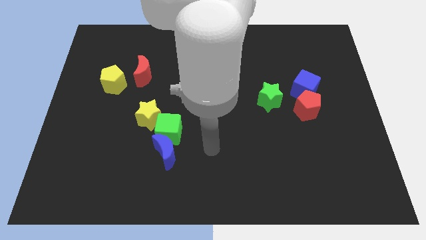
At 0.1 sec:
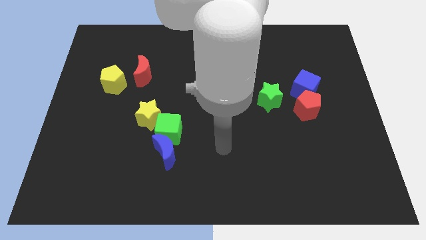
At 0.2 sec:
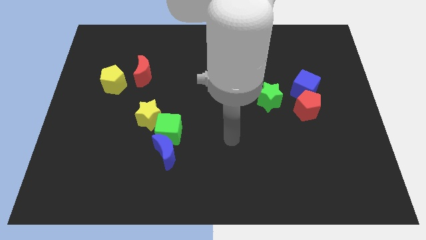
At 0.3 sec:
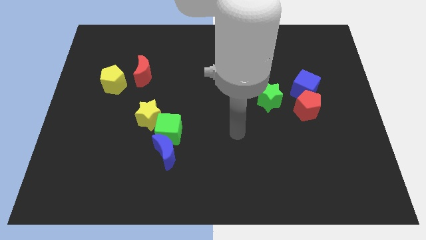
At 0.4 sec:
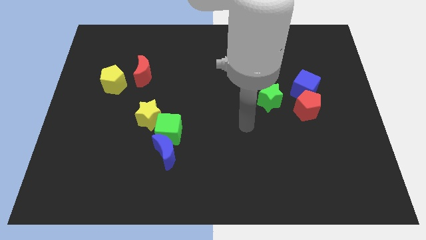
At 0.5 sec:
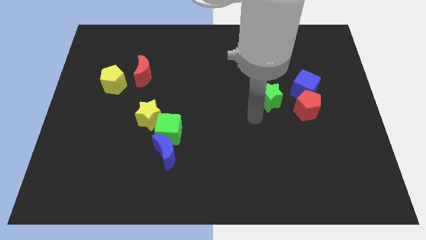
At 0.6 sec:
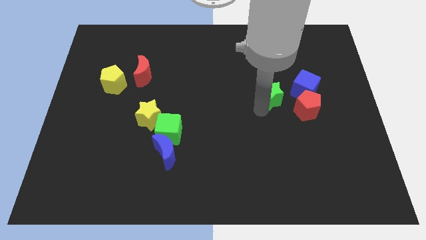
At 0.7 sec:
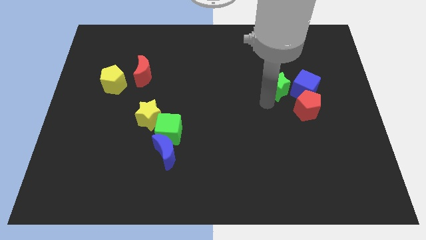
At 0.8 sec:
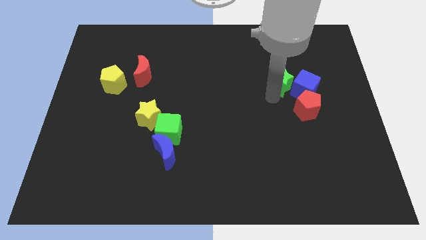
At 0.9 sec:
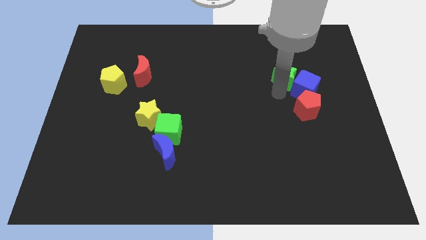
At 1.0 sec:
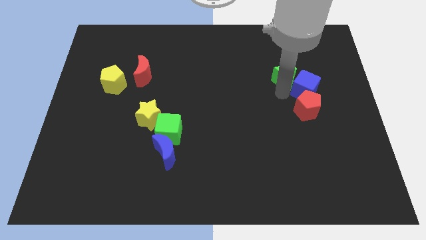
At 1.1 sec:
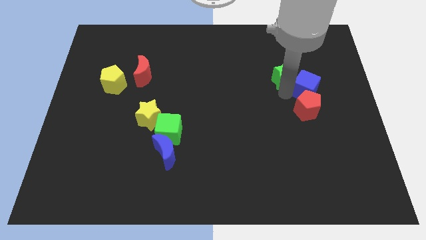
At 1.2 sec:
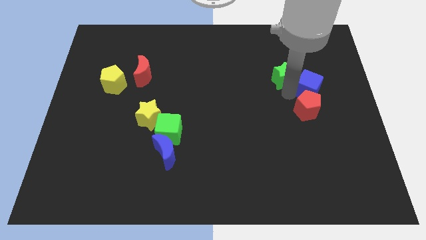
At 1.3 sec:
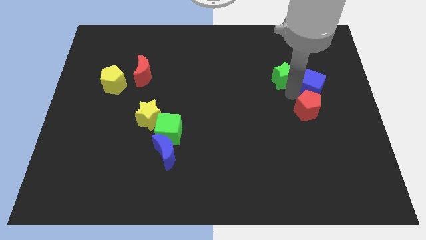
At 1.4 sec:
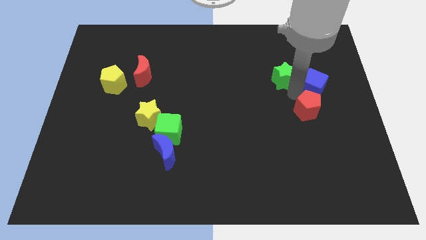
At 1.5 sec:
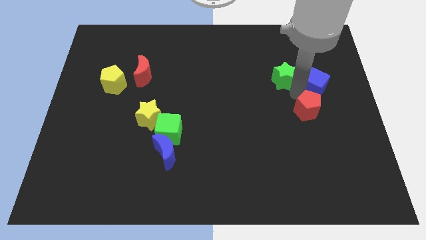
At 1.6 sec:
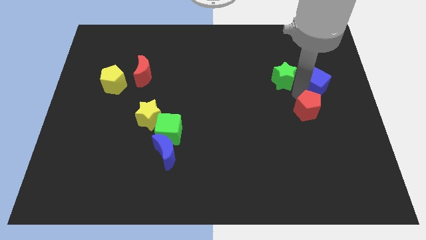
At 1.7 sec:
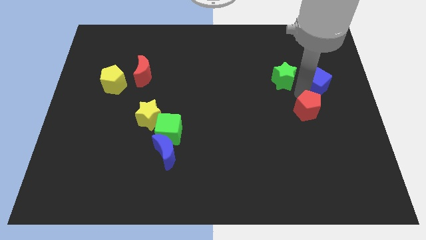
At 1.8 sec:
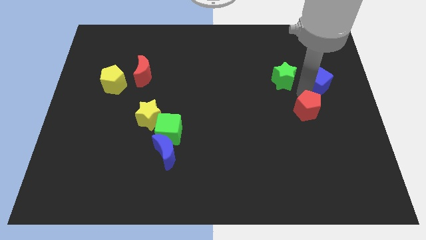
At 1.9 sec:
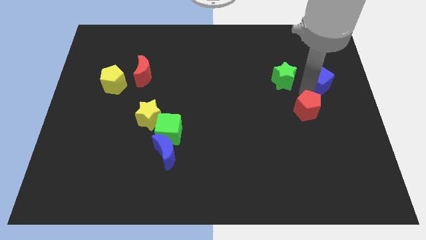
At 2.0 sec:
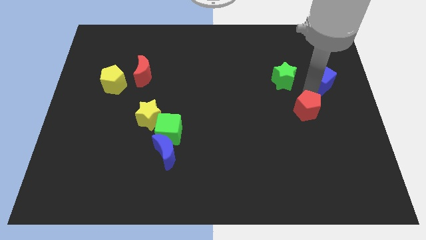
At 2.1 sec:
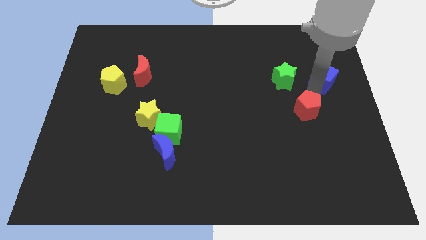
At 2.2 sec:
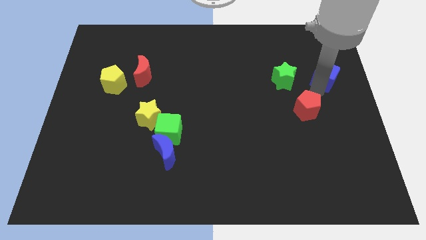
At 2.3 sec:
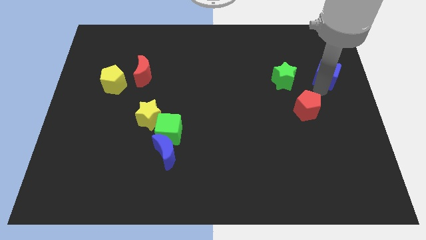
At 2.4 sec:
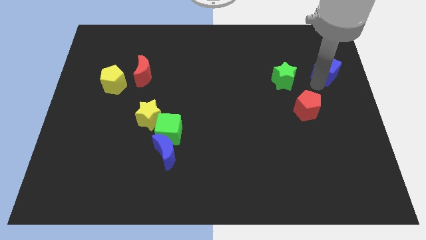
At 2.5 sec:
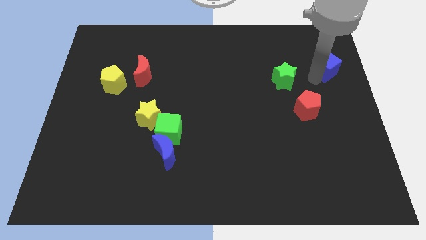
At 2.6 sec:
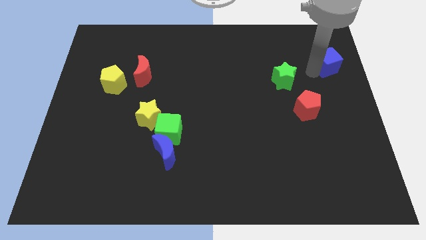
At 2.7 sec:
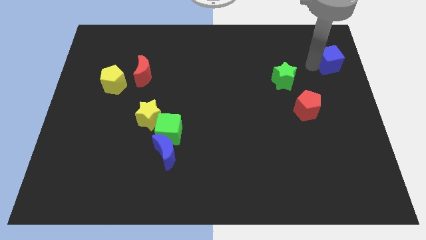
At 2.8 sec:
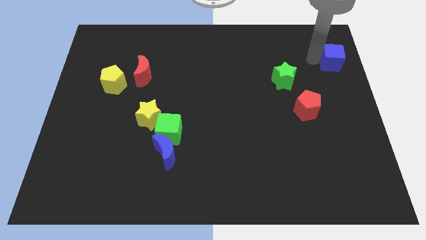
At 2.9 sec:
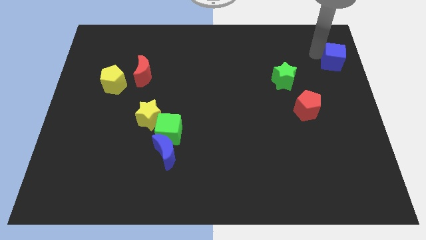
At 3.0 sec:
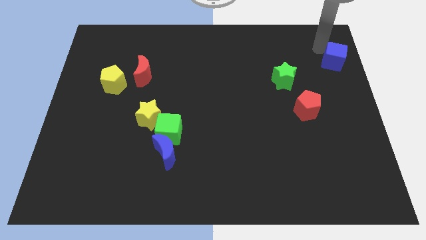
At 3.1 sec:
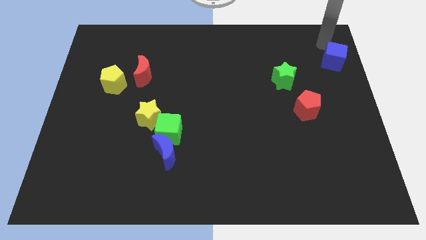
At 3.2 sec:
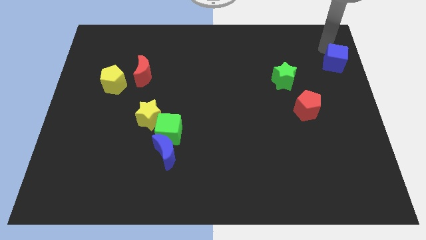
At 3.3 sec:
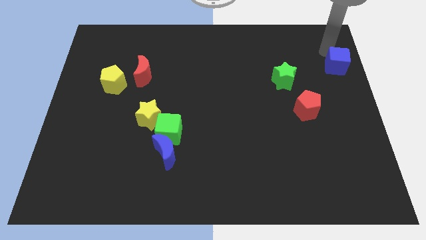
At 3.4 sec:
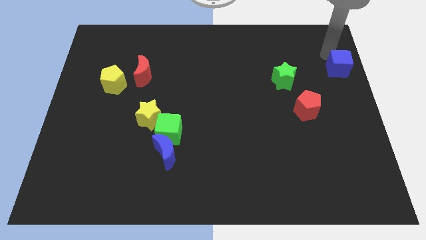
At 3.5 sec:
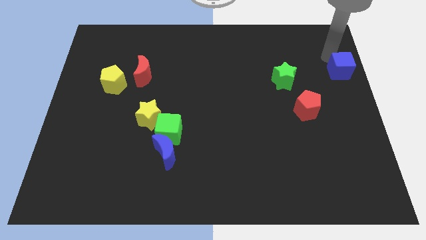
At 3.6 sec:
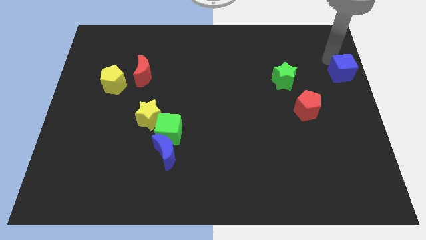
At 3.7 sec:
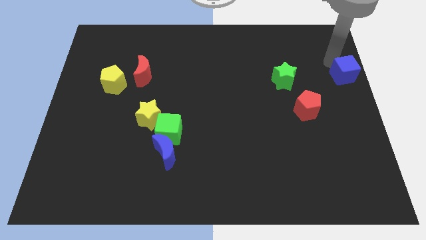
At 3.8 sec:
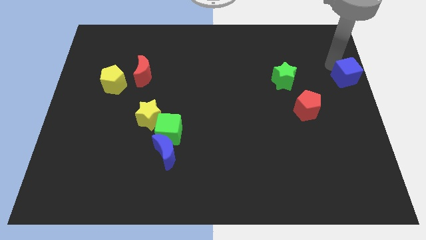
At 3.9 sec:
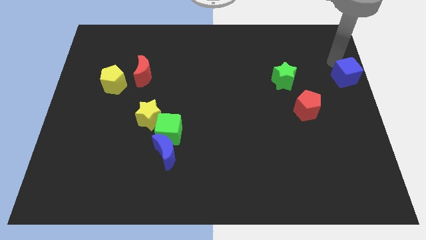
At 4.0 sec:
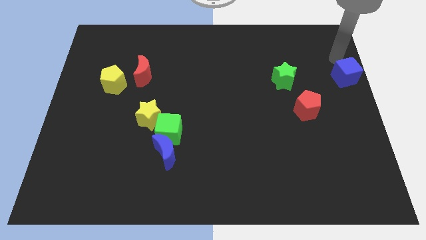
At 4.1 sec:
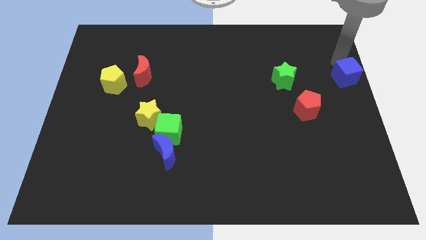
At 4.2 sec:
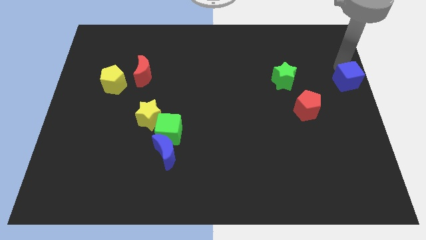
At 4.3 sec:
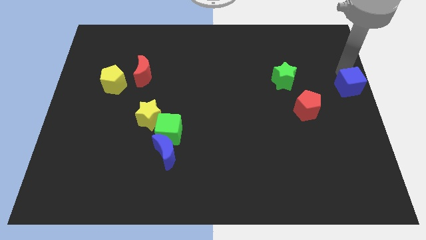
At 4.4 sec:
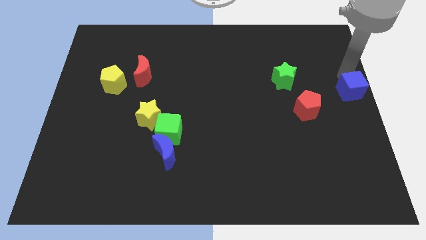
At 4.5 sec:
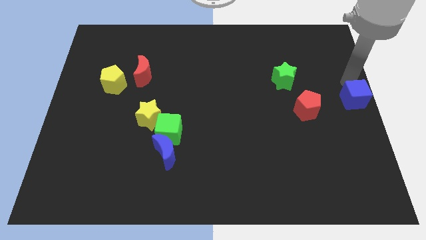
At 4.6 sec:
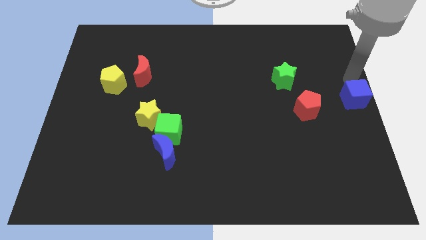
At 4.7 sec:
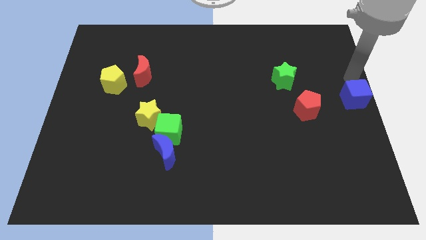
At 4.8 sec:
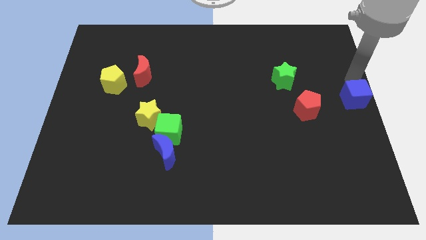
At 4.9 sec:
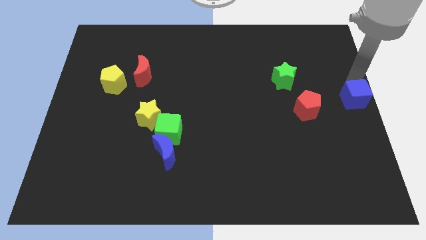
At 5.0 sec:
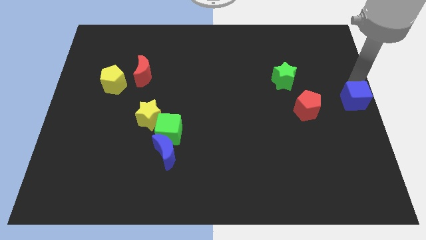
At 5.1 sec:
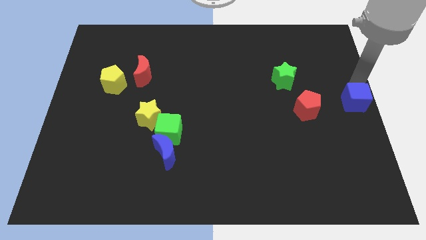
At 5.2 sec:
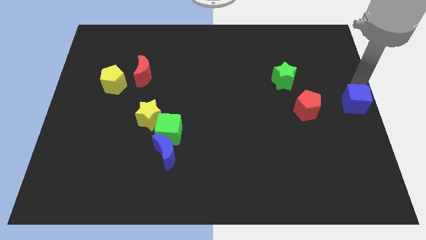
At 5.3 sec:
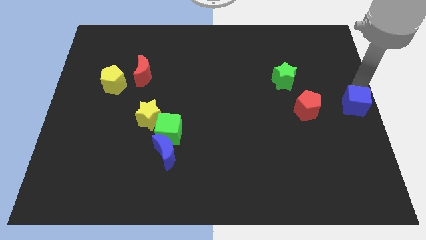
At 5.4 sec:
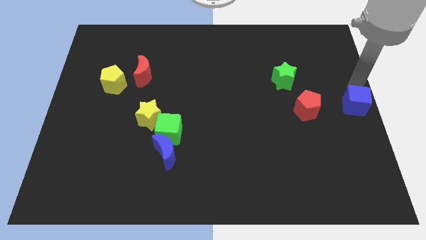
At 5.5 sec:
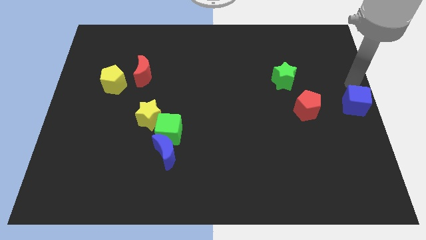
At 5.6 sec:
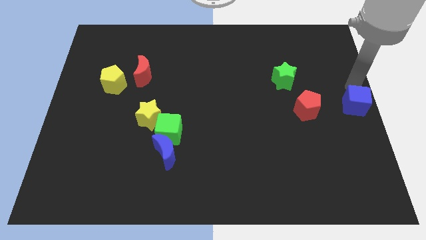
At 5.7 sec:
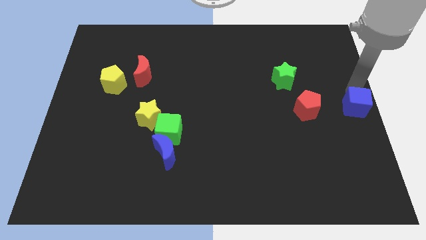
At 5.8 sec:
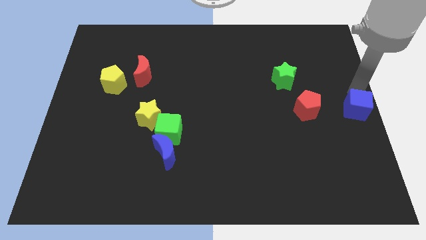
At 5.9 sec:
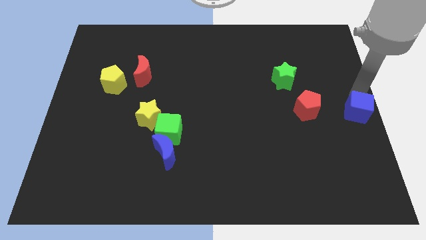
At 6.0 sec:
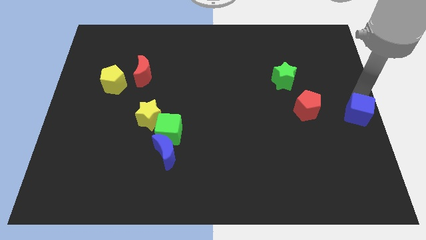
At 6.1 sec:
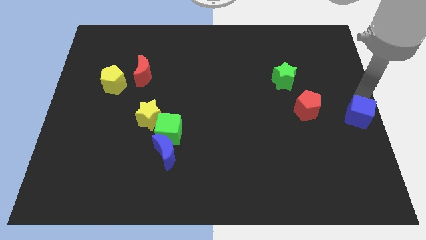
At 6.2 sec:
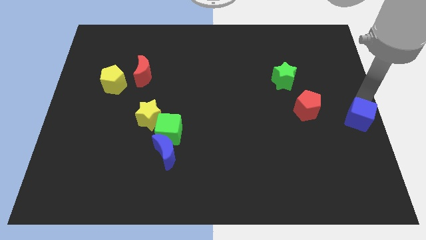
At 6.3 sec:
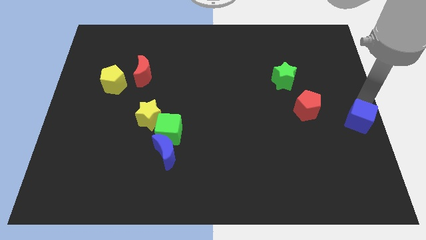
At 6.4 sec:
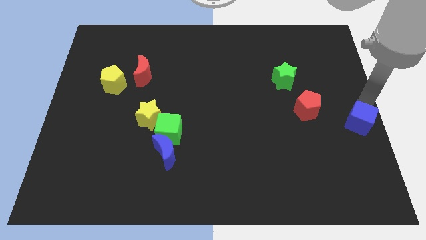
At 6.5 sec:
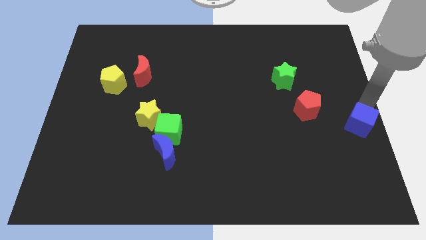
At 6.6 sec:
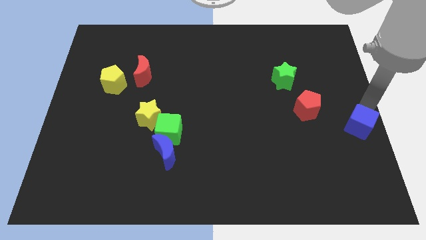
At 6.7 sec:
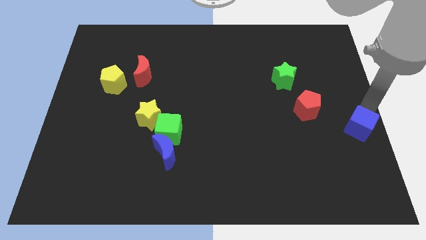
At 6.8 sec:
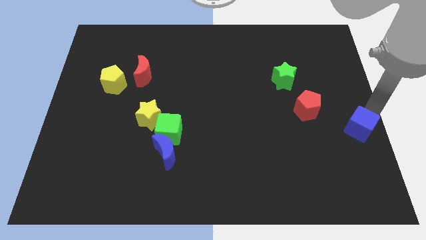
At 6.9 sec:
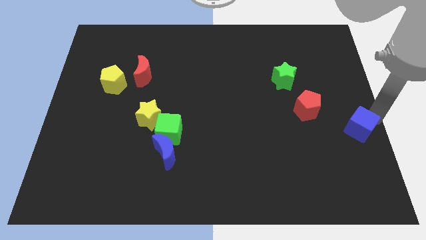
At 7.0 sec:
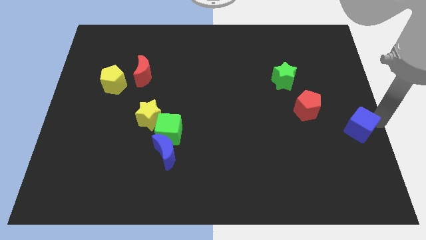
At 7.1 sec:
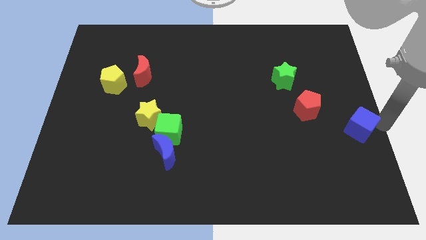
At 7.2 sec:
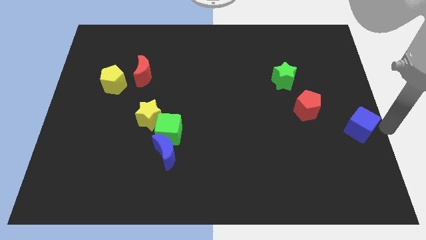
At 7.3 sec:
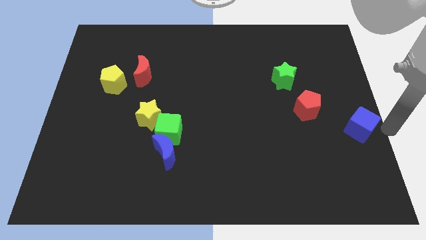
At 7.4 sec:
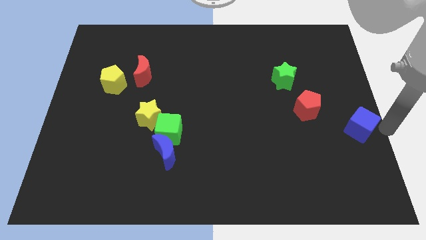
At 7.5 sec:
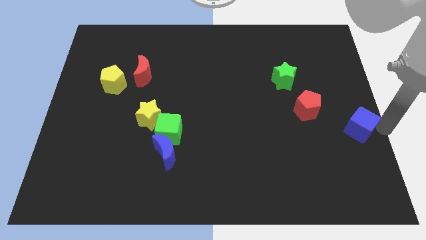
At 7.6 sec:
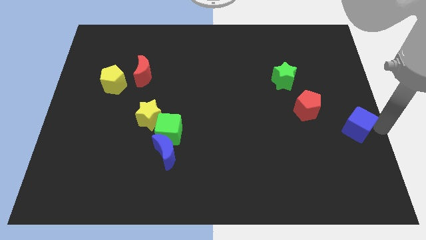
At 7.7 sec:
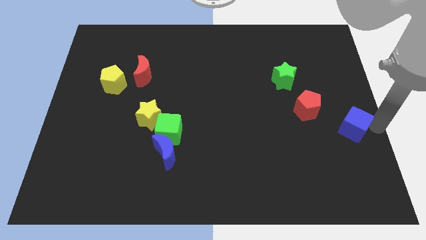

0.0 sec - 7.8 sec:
slightly slide the blue cube down

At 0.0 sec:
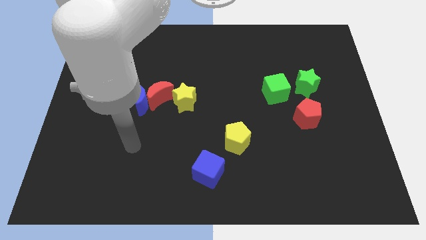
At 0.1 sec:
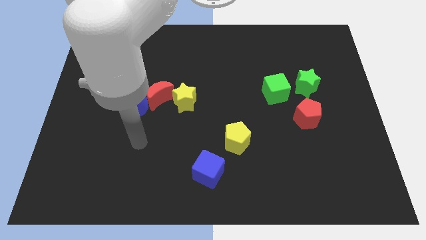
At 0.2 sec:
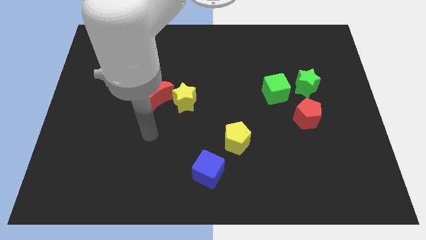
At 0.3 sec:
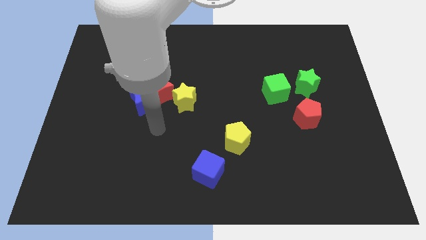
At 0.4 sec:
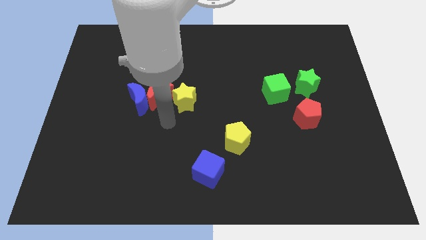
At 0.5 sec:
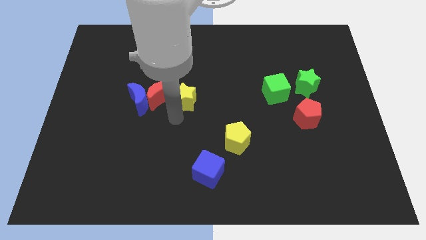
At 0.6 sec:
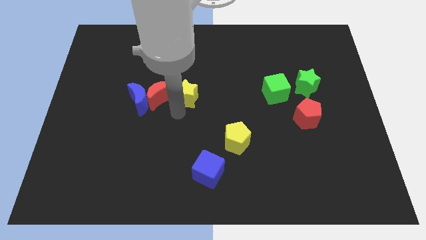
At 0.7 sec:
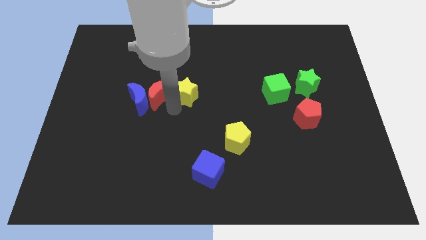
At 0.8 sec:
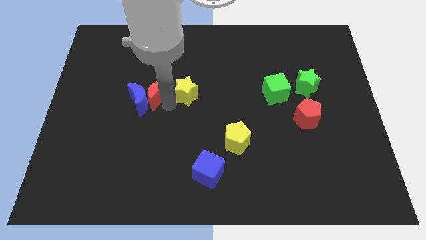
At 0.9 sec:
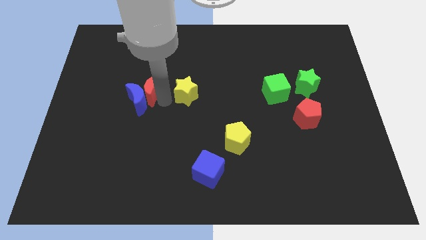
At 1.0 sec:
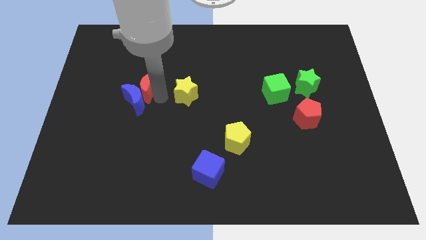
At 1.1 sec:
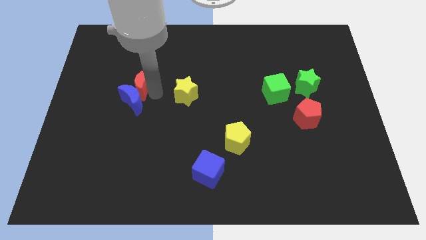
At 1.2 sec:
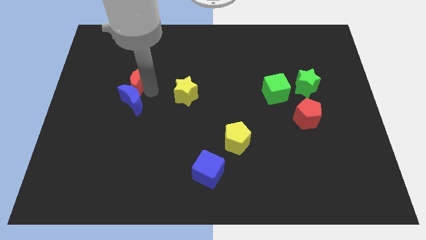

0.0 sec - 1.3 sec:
push the red moon up and left a little bit
